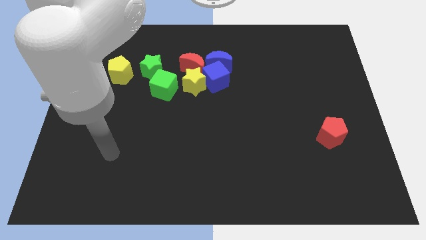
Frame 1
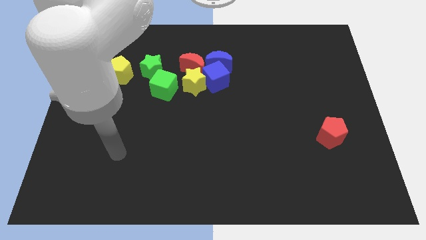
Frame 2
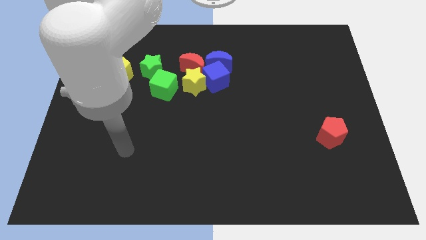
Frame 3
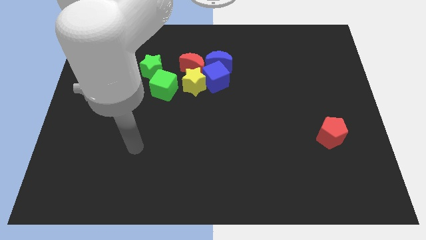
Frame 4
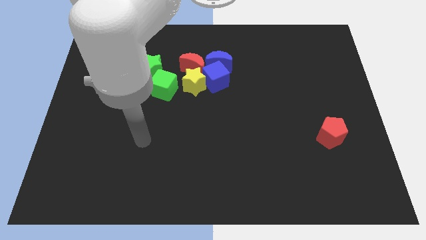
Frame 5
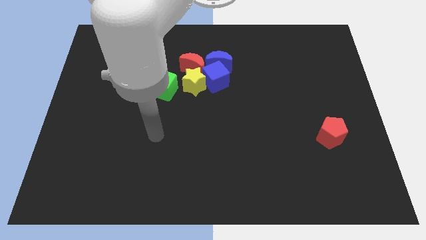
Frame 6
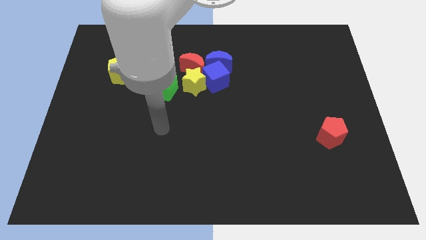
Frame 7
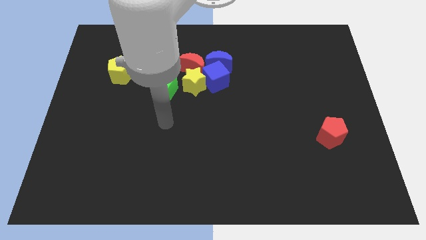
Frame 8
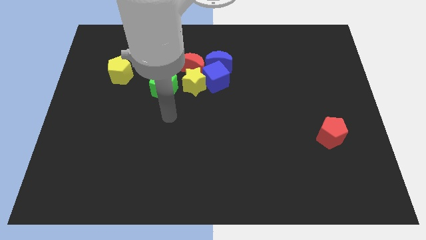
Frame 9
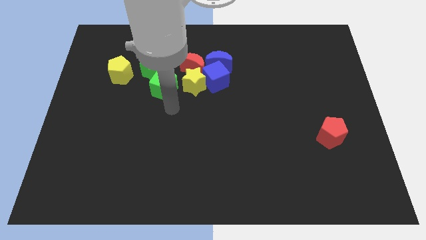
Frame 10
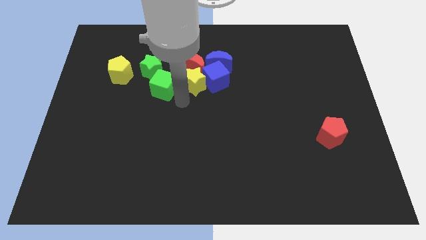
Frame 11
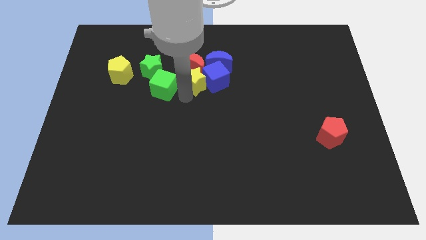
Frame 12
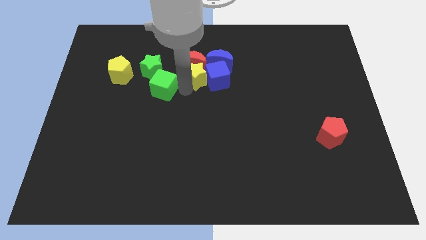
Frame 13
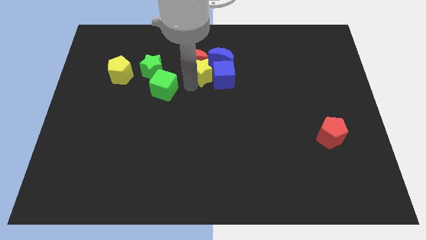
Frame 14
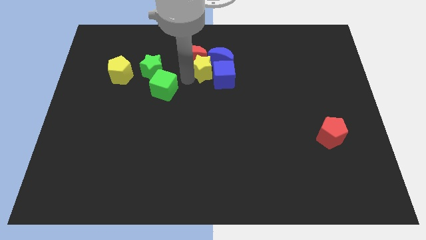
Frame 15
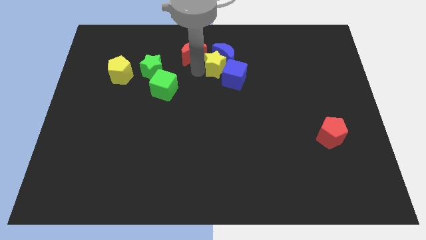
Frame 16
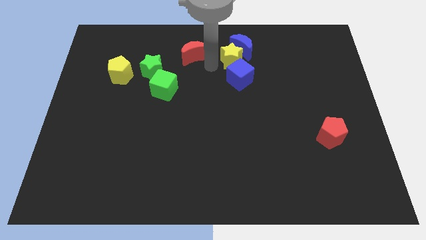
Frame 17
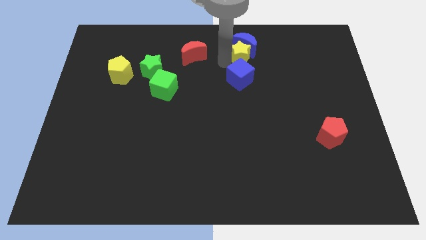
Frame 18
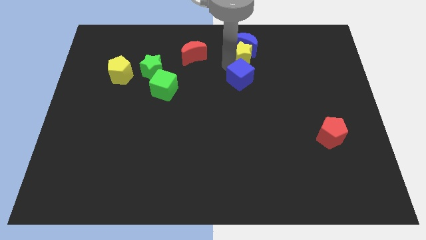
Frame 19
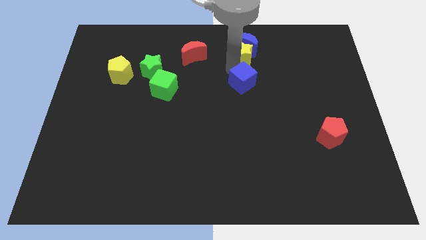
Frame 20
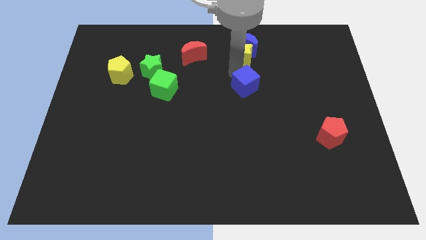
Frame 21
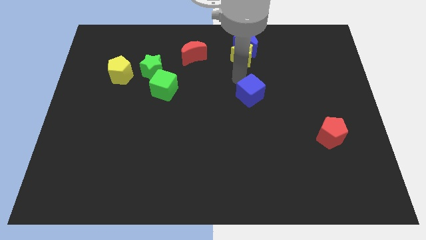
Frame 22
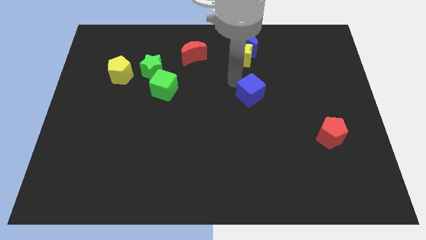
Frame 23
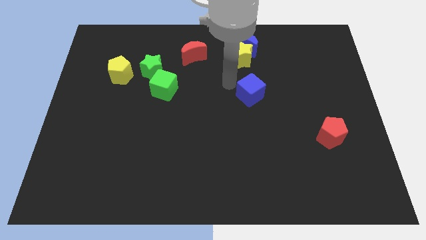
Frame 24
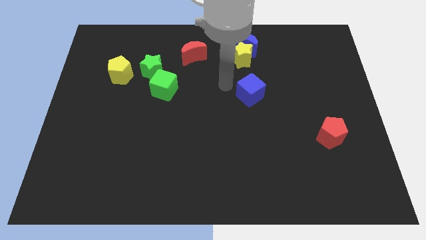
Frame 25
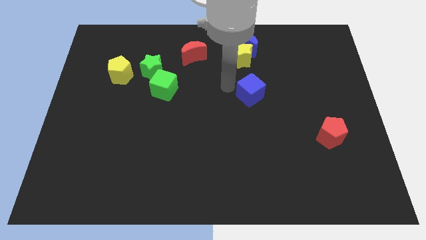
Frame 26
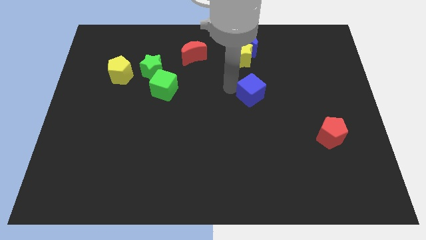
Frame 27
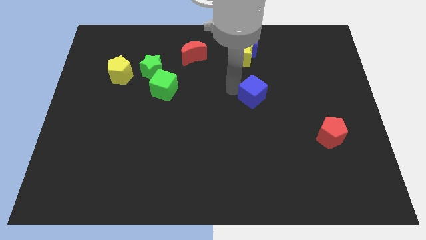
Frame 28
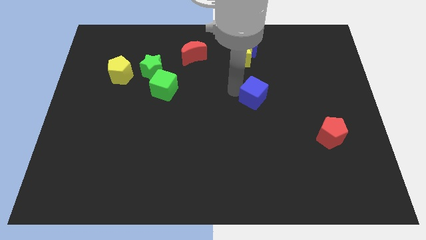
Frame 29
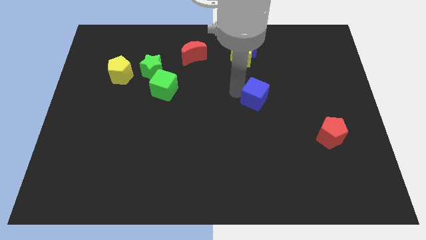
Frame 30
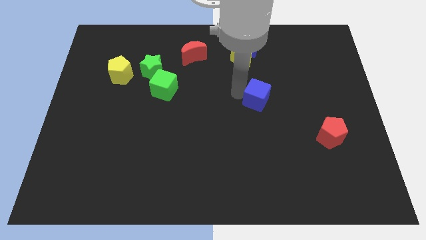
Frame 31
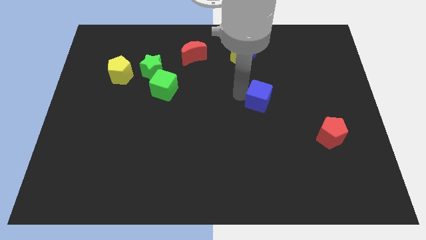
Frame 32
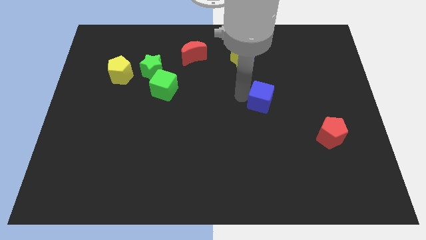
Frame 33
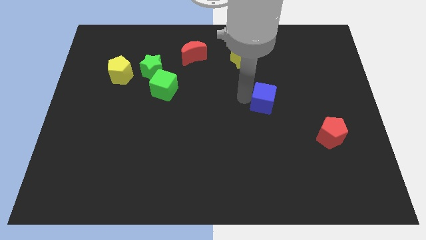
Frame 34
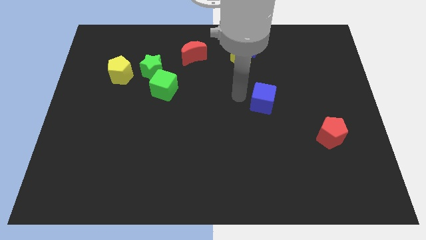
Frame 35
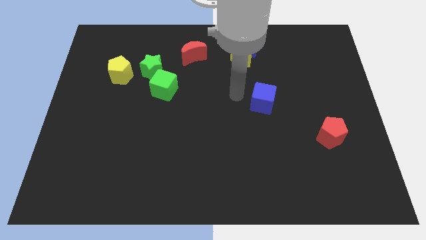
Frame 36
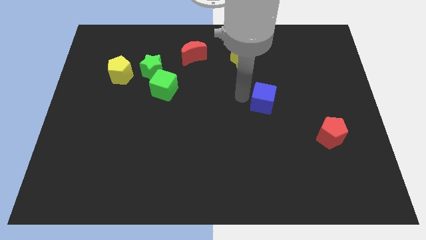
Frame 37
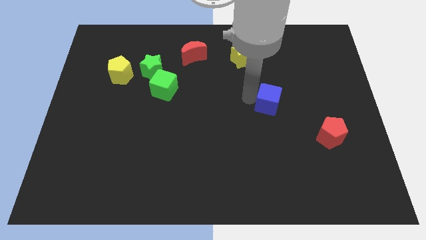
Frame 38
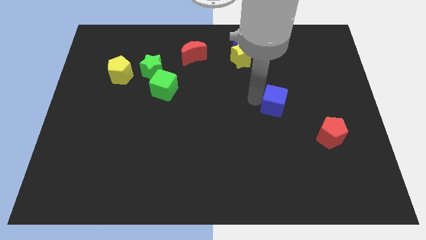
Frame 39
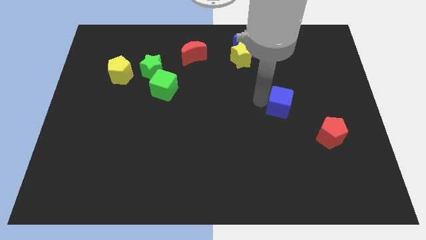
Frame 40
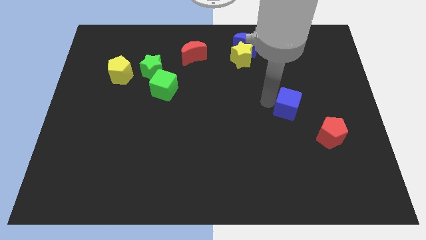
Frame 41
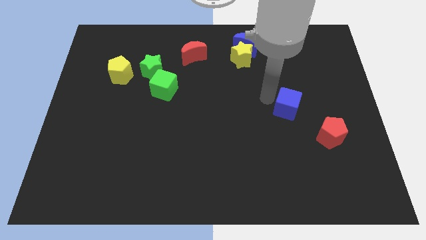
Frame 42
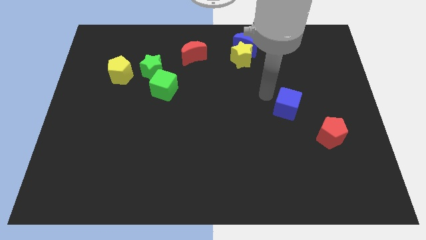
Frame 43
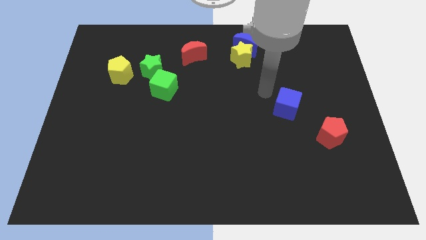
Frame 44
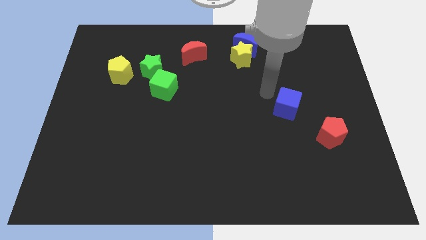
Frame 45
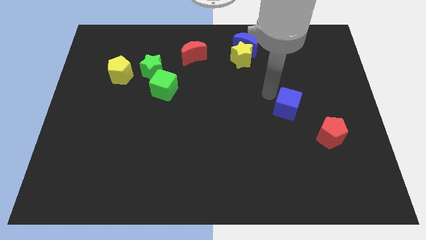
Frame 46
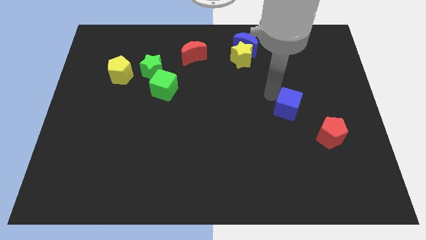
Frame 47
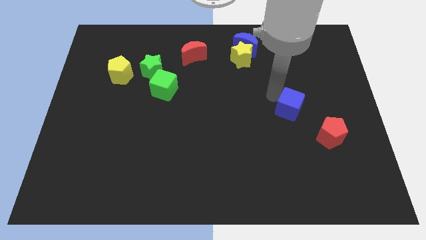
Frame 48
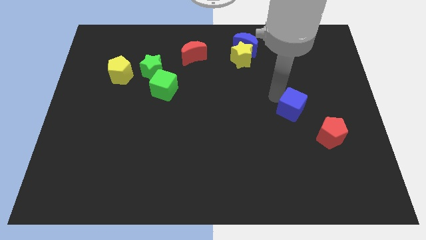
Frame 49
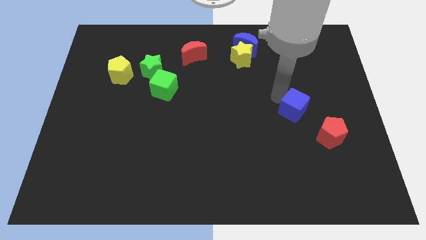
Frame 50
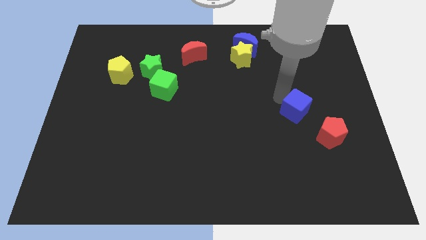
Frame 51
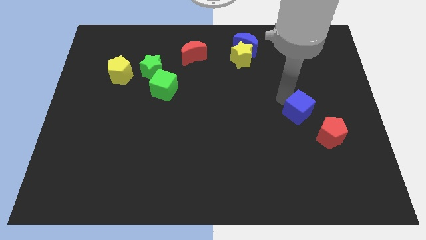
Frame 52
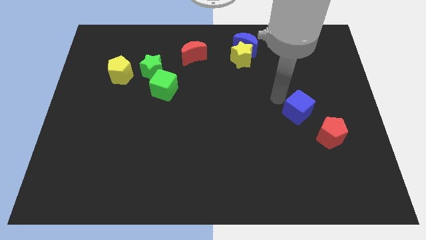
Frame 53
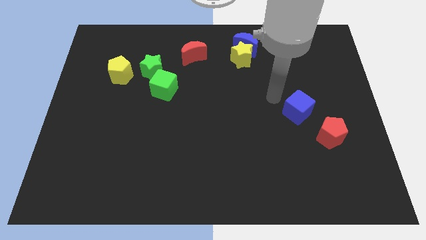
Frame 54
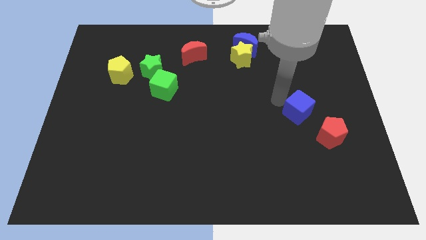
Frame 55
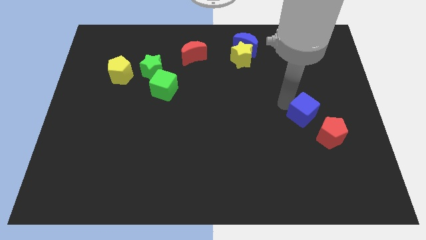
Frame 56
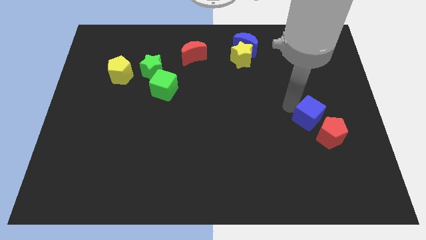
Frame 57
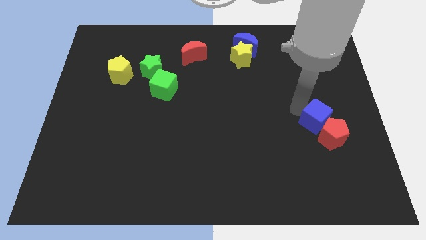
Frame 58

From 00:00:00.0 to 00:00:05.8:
move the blue cube towards the red pentagon

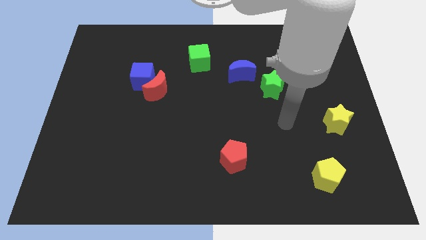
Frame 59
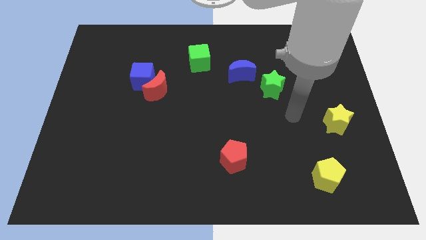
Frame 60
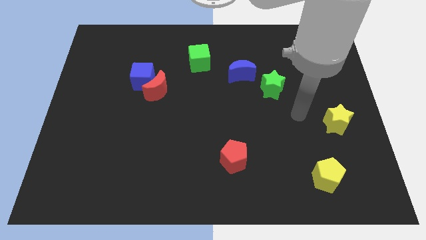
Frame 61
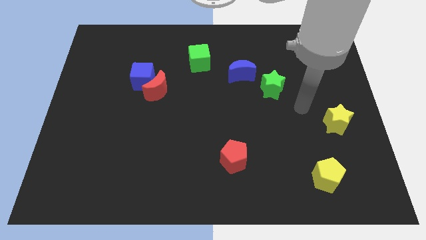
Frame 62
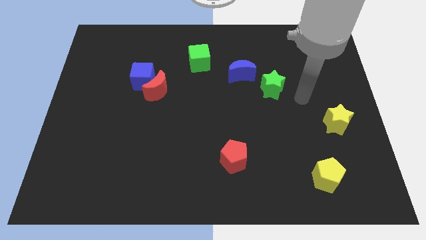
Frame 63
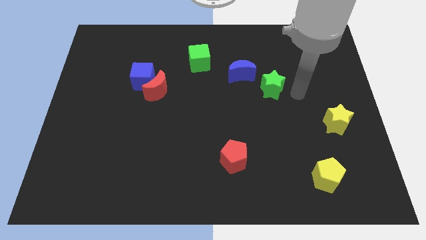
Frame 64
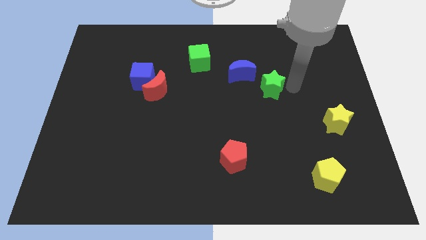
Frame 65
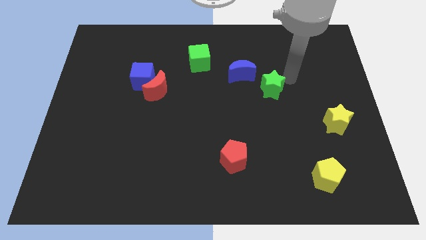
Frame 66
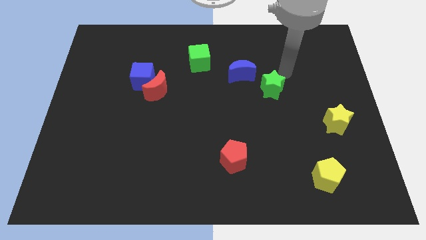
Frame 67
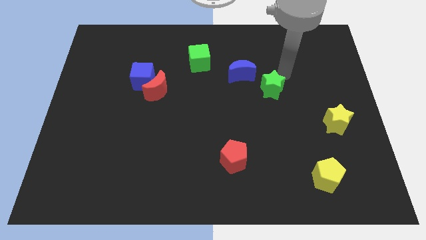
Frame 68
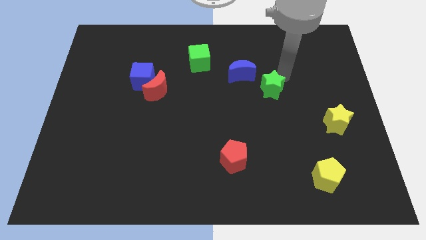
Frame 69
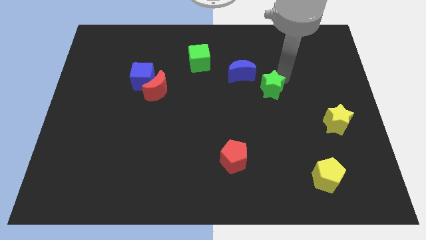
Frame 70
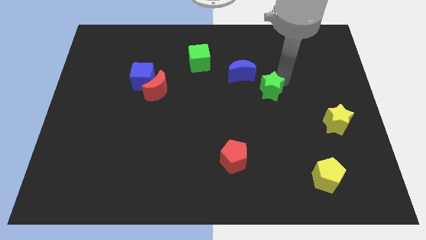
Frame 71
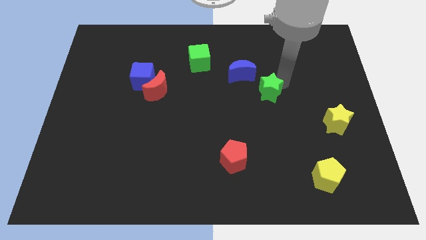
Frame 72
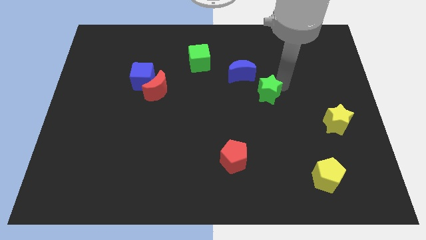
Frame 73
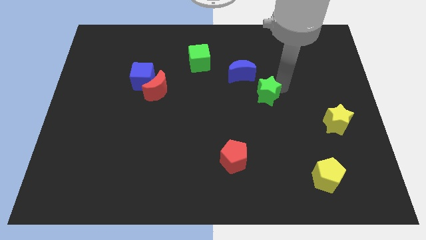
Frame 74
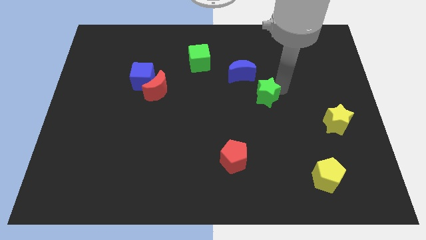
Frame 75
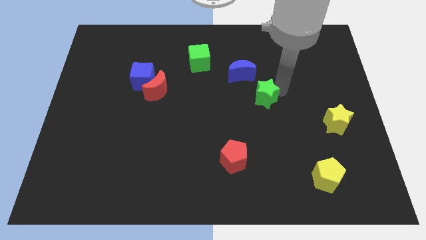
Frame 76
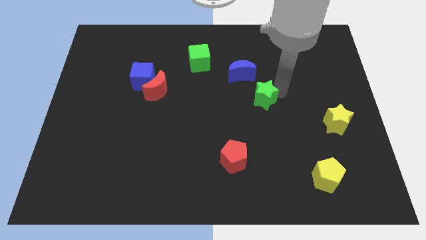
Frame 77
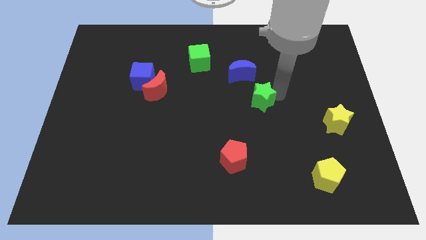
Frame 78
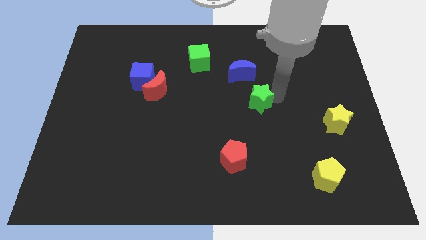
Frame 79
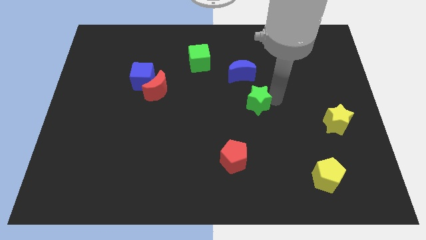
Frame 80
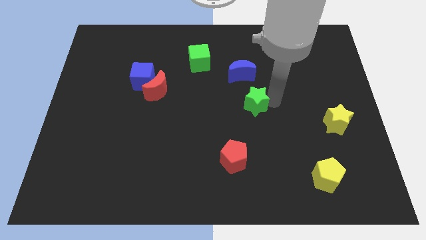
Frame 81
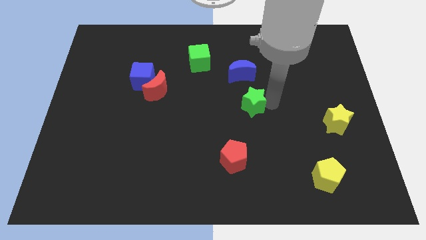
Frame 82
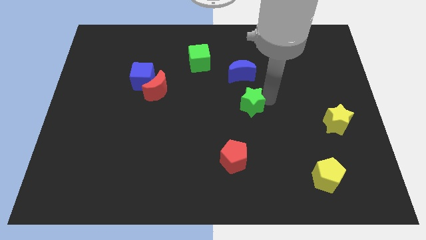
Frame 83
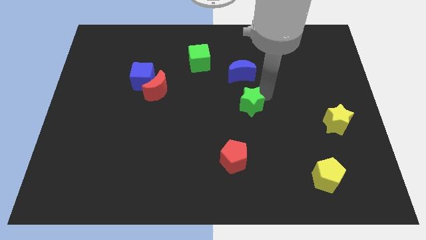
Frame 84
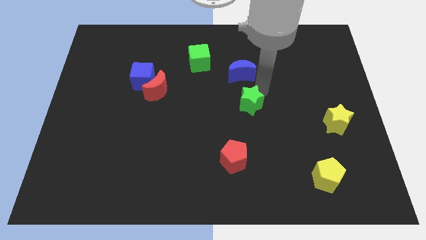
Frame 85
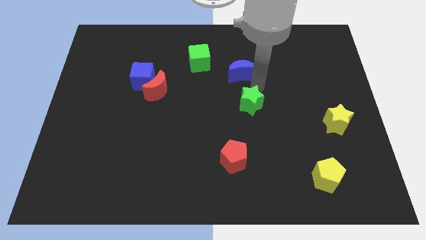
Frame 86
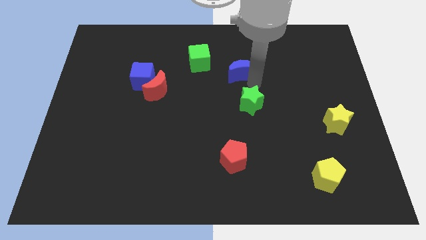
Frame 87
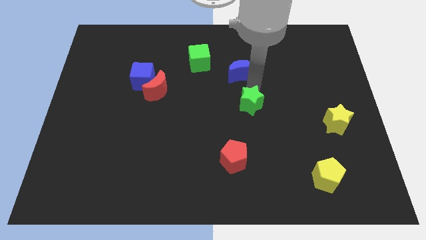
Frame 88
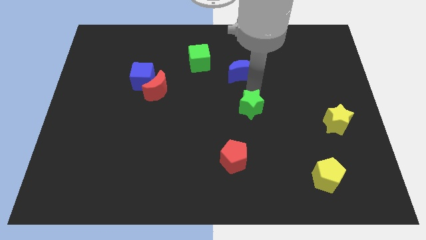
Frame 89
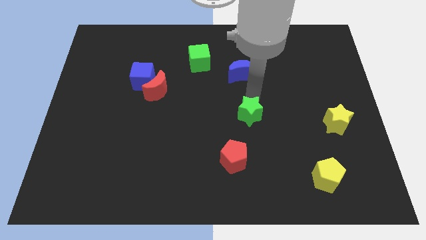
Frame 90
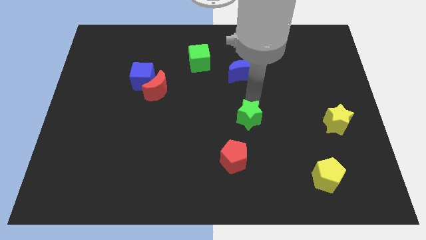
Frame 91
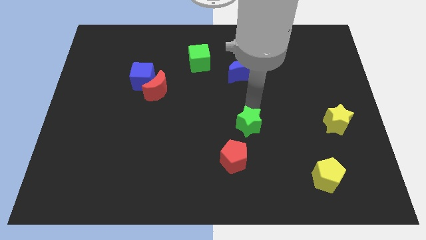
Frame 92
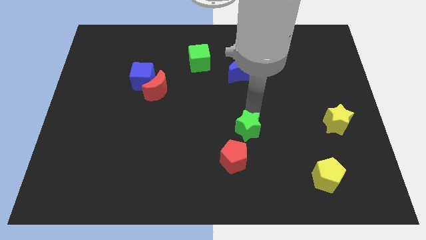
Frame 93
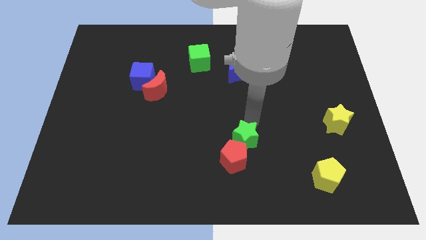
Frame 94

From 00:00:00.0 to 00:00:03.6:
push the green star towards the red pentagon
